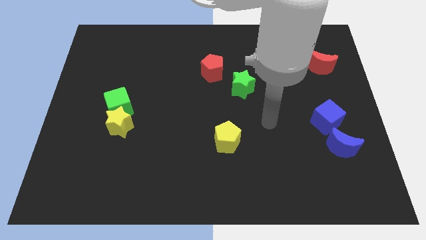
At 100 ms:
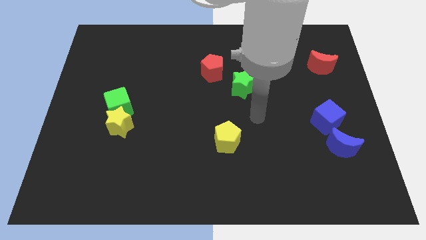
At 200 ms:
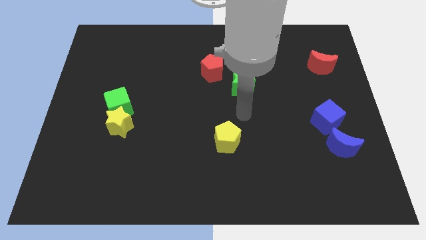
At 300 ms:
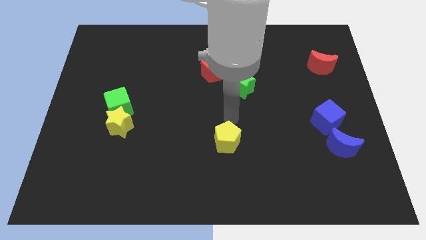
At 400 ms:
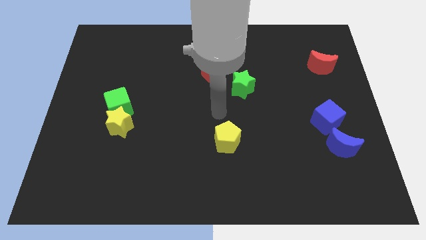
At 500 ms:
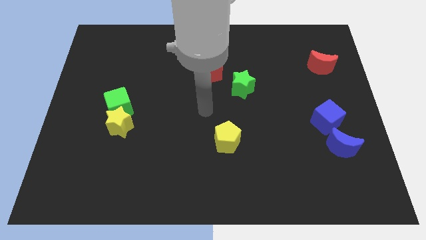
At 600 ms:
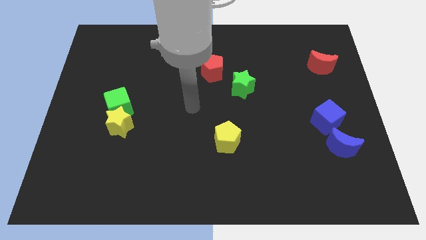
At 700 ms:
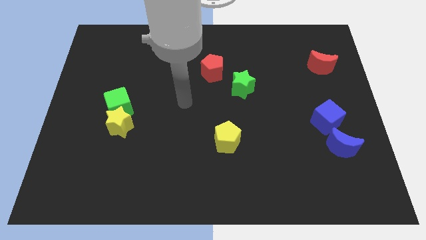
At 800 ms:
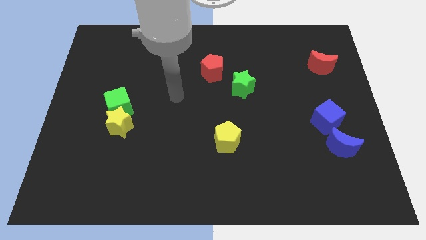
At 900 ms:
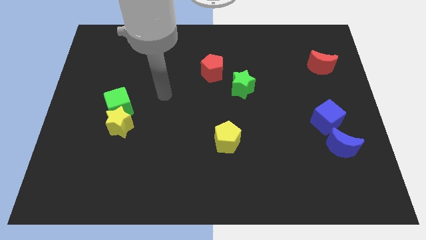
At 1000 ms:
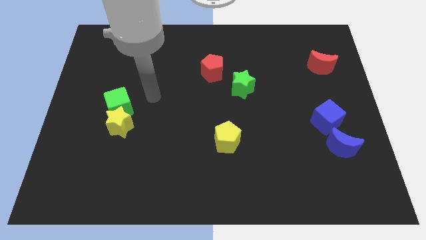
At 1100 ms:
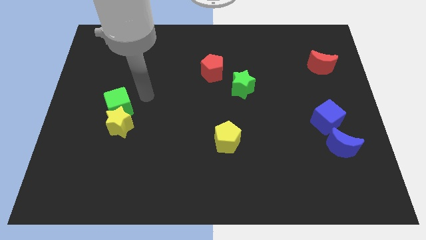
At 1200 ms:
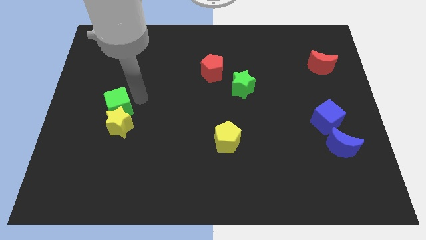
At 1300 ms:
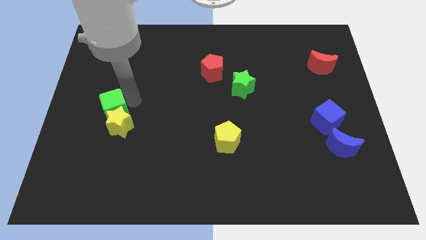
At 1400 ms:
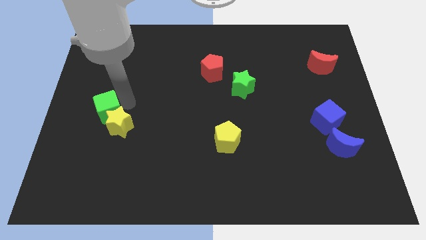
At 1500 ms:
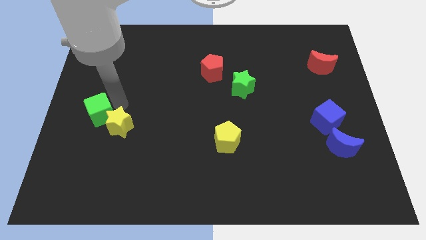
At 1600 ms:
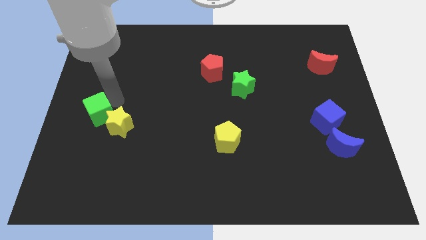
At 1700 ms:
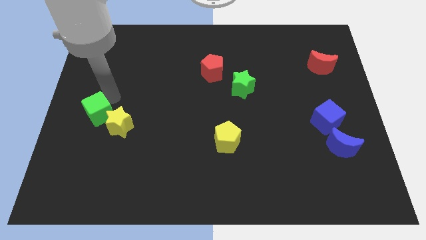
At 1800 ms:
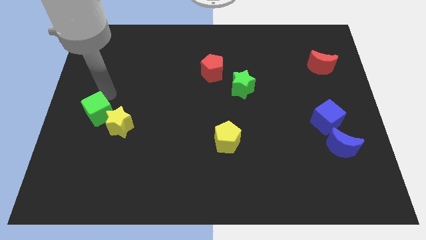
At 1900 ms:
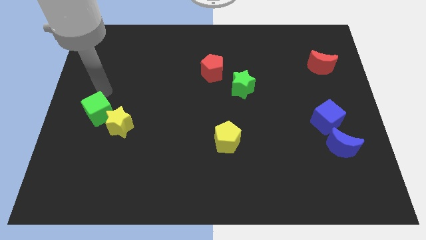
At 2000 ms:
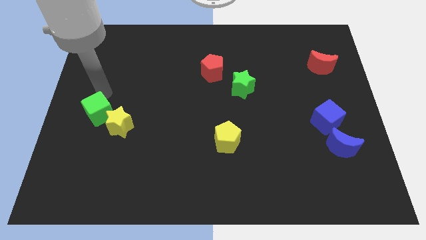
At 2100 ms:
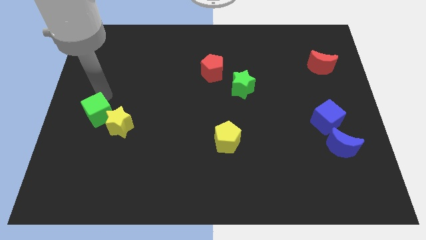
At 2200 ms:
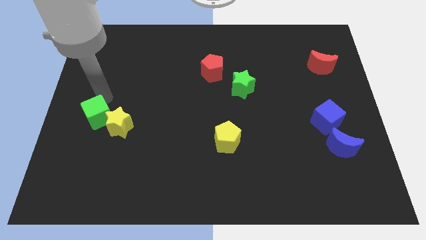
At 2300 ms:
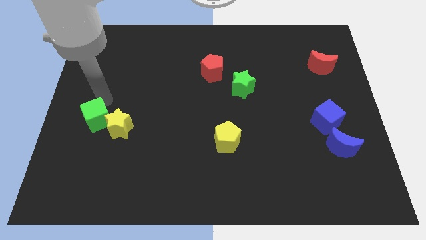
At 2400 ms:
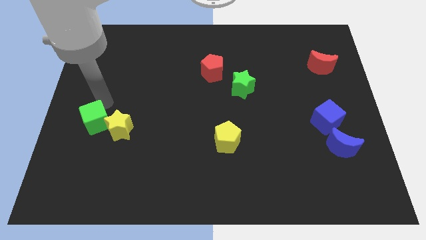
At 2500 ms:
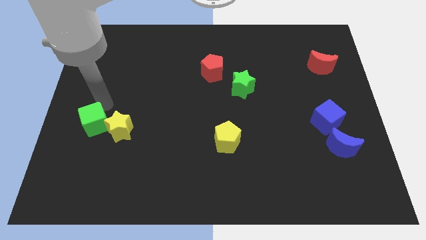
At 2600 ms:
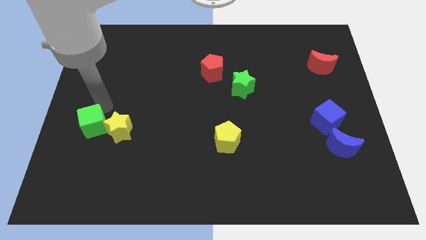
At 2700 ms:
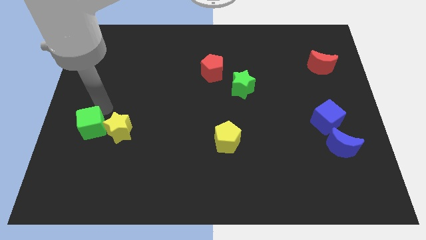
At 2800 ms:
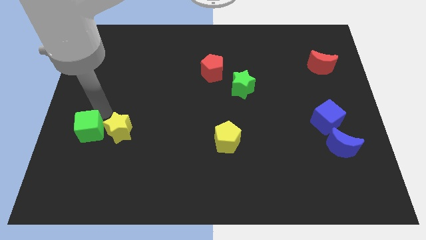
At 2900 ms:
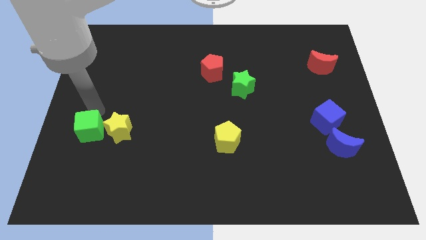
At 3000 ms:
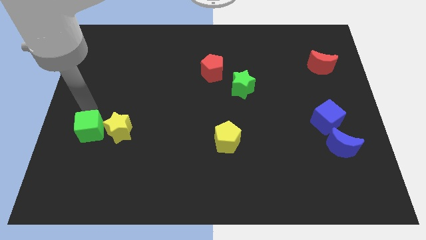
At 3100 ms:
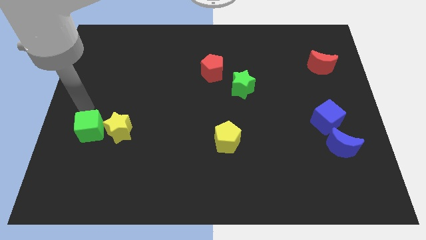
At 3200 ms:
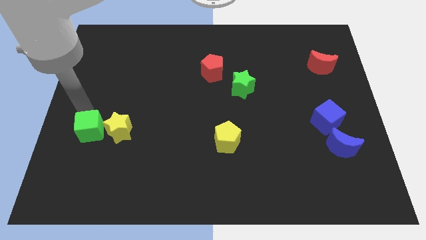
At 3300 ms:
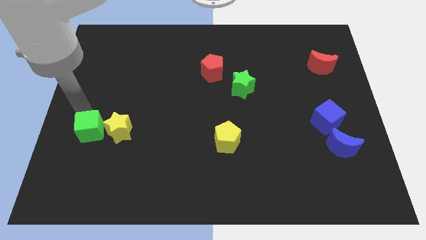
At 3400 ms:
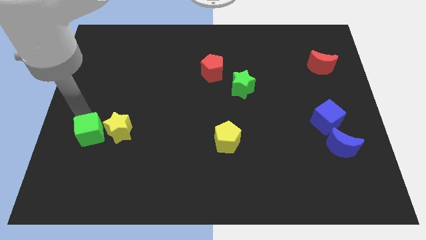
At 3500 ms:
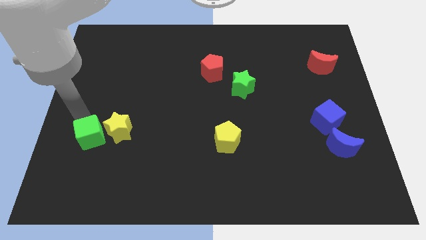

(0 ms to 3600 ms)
push the green cube a little downwards

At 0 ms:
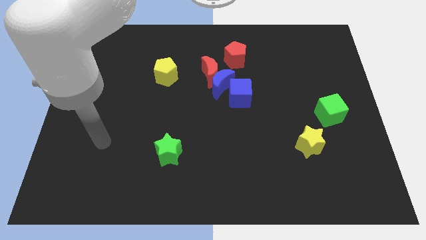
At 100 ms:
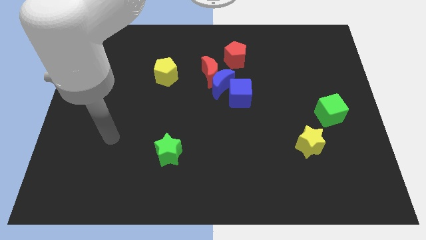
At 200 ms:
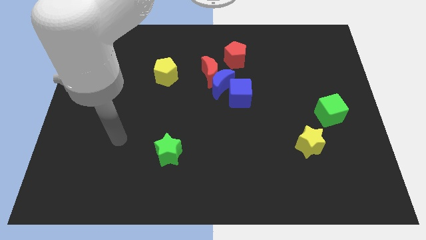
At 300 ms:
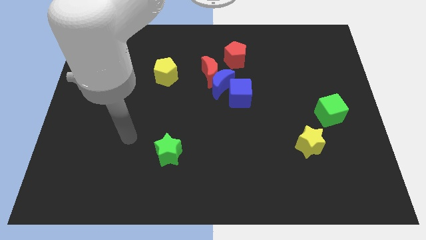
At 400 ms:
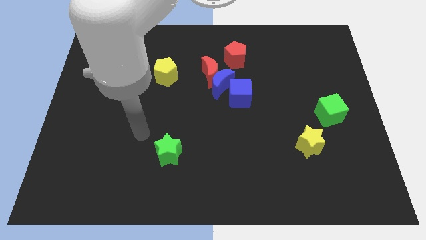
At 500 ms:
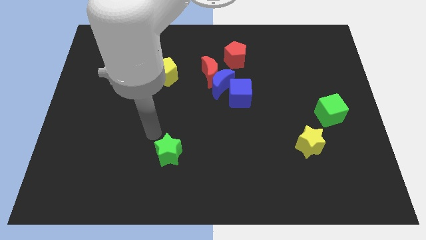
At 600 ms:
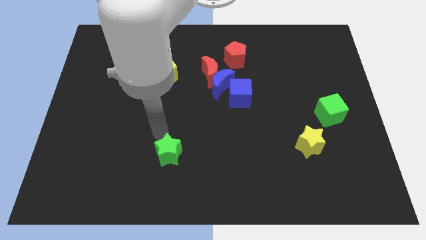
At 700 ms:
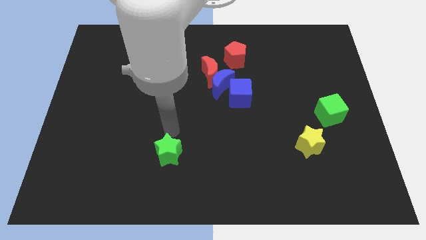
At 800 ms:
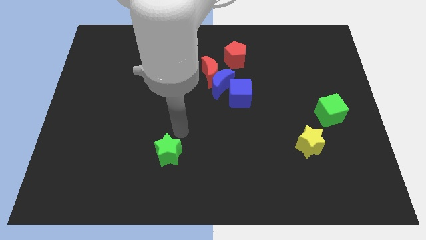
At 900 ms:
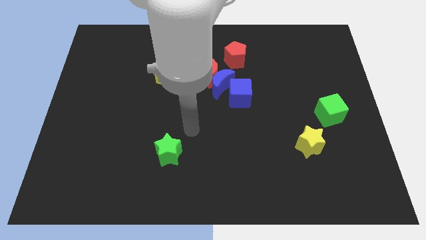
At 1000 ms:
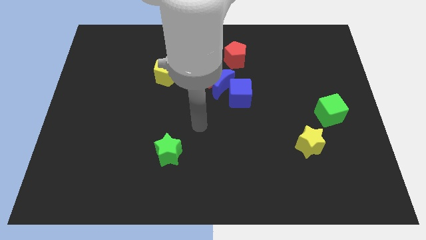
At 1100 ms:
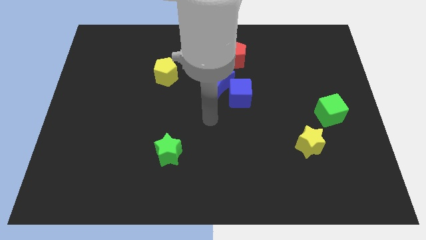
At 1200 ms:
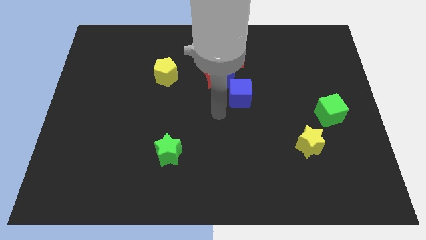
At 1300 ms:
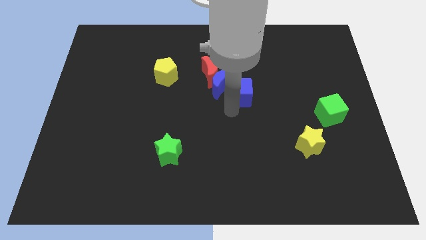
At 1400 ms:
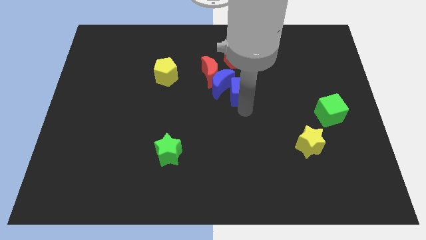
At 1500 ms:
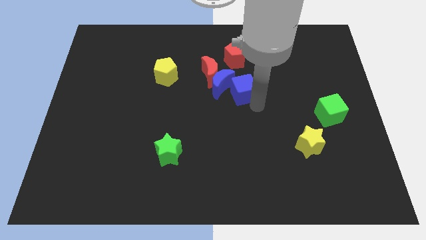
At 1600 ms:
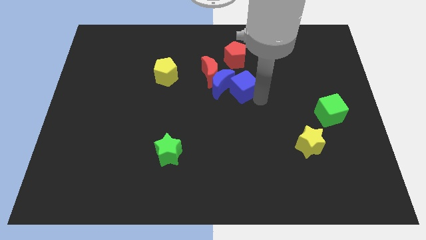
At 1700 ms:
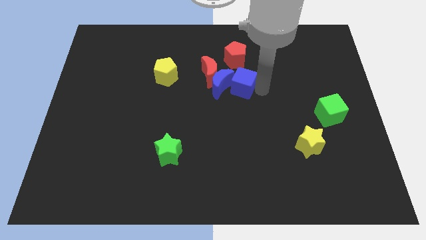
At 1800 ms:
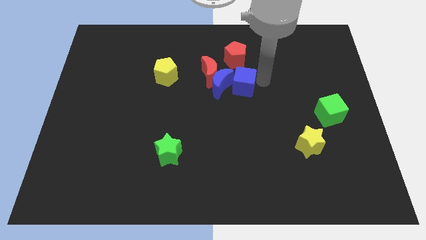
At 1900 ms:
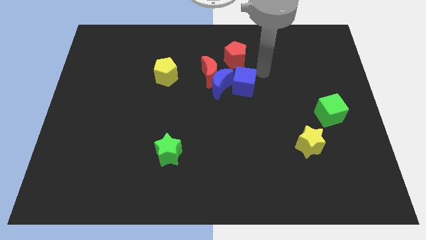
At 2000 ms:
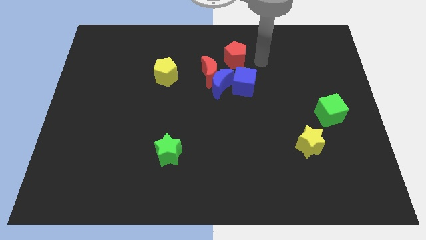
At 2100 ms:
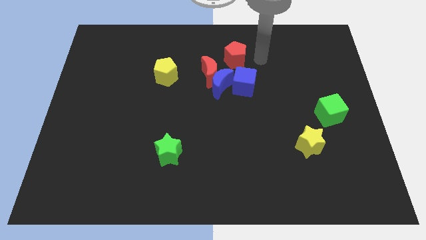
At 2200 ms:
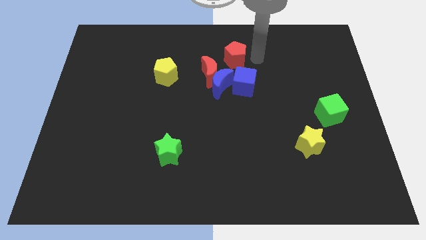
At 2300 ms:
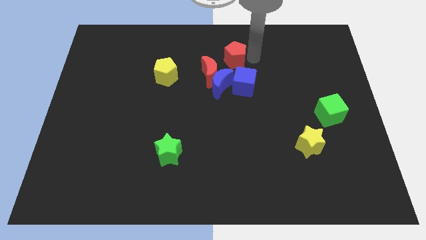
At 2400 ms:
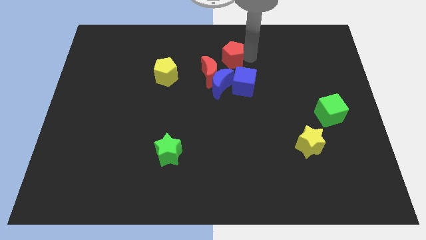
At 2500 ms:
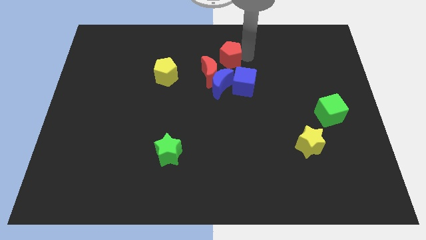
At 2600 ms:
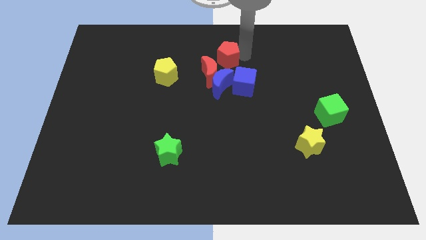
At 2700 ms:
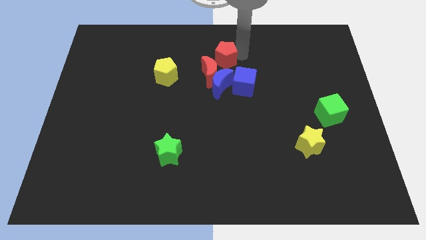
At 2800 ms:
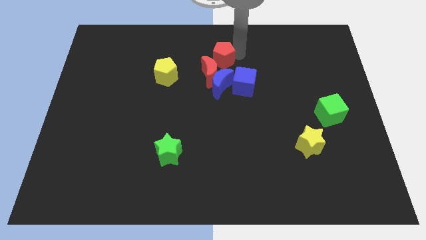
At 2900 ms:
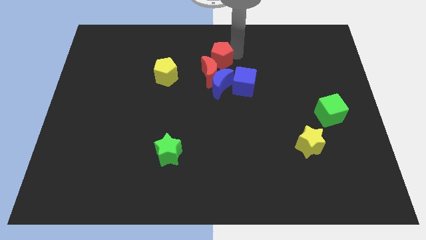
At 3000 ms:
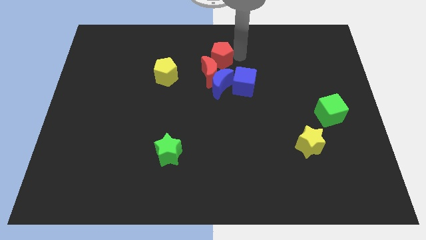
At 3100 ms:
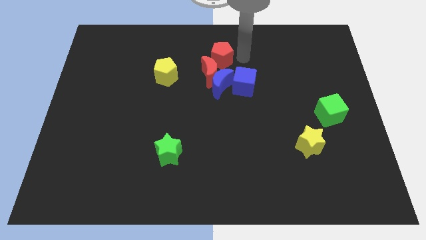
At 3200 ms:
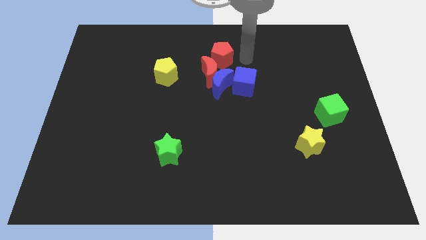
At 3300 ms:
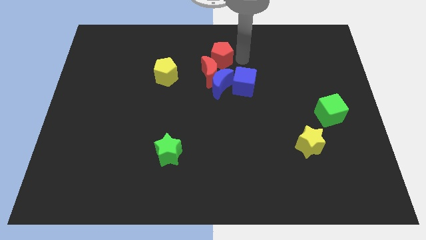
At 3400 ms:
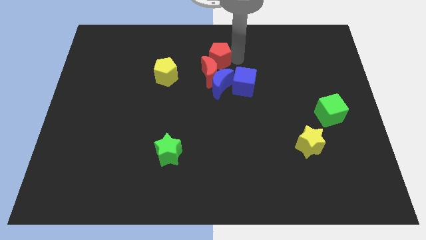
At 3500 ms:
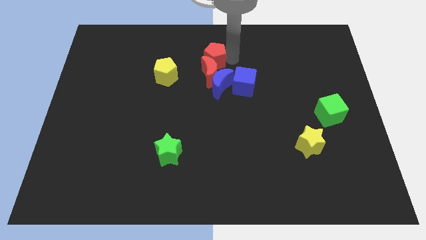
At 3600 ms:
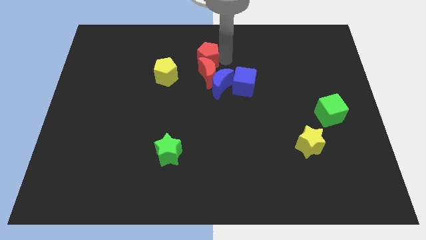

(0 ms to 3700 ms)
push the red pentagon to the left slightly

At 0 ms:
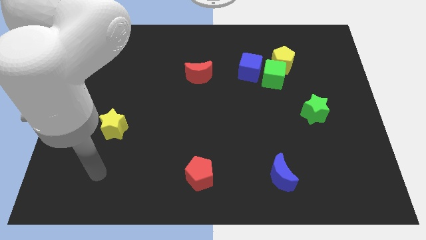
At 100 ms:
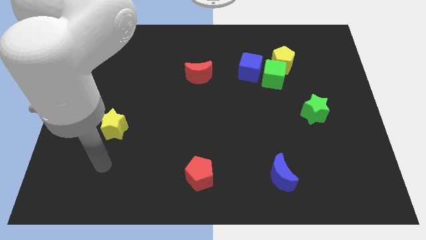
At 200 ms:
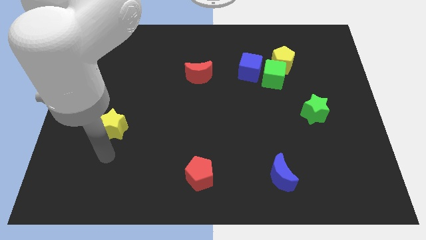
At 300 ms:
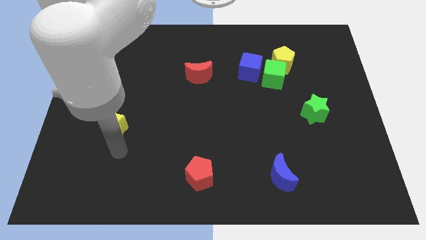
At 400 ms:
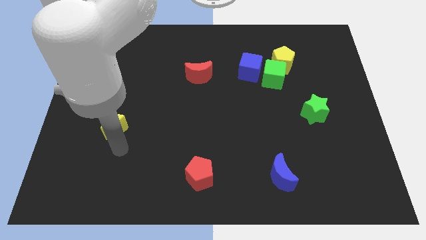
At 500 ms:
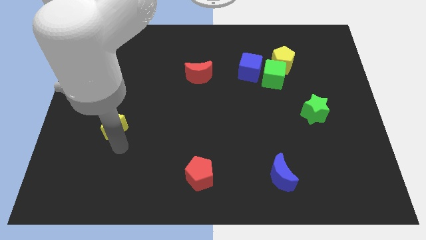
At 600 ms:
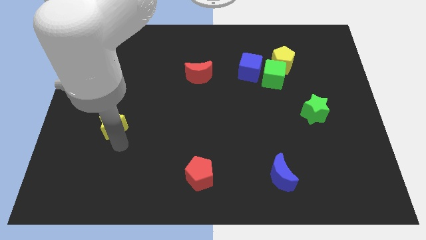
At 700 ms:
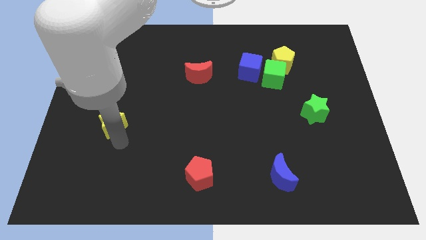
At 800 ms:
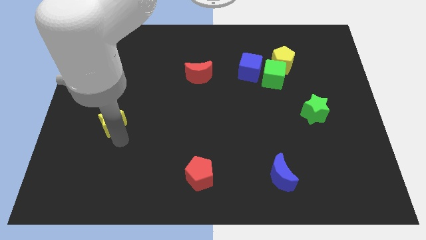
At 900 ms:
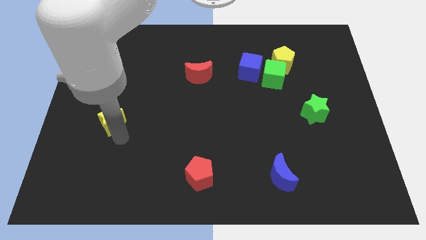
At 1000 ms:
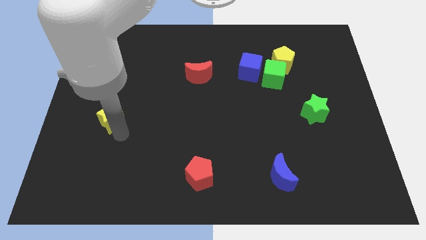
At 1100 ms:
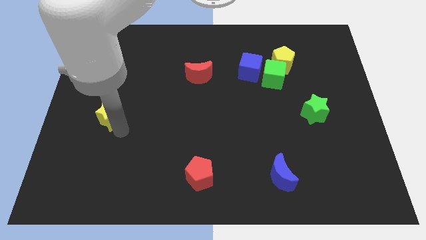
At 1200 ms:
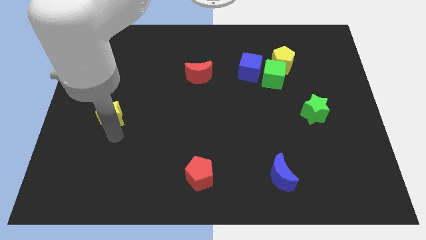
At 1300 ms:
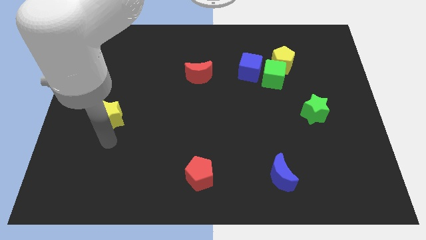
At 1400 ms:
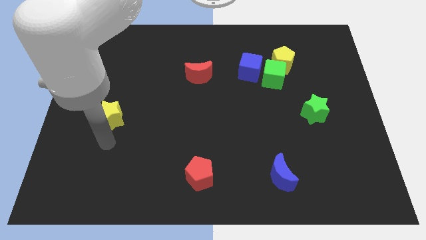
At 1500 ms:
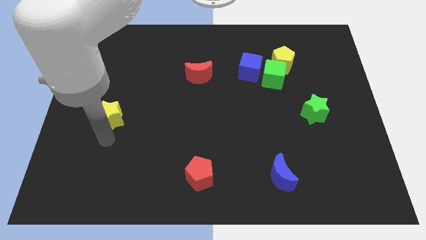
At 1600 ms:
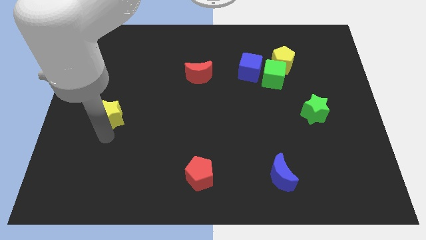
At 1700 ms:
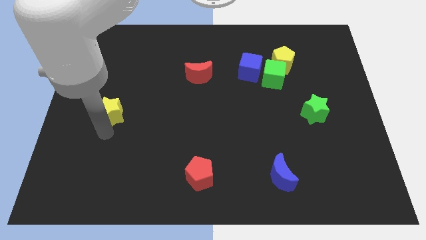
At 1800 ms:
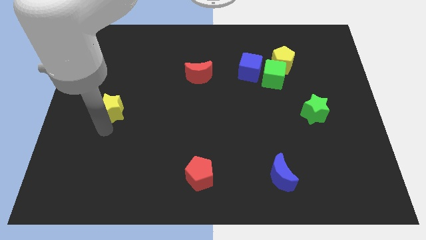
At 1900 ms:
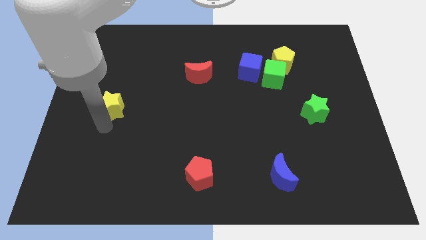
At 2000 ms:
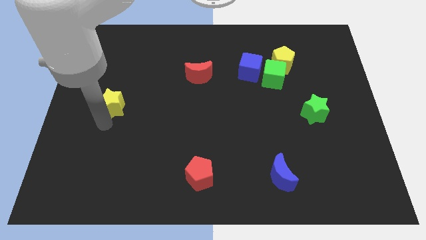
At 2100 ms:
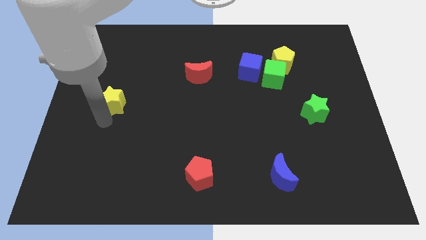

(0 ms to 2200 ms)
slightly slide the yellow star up
